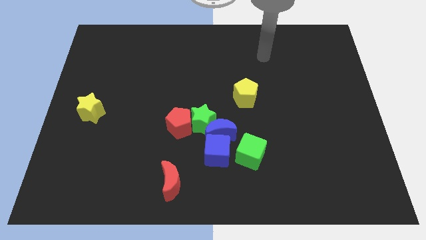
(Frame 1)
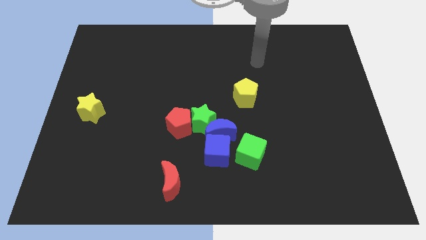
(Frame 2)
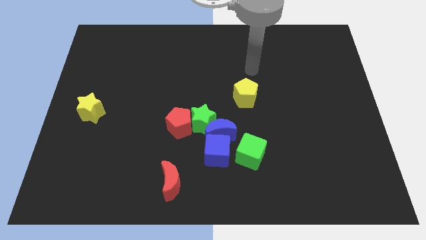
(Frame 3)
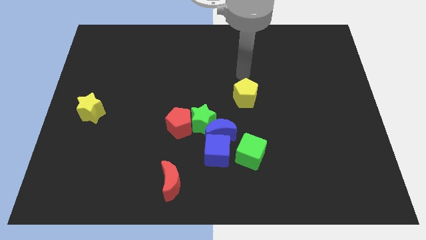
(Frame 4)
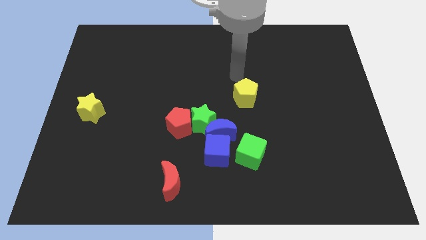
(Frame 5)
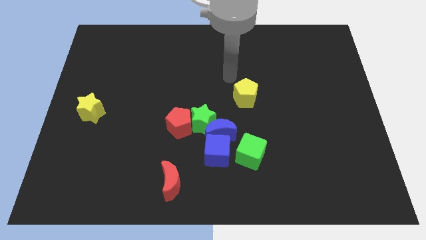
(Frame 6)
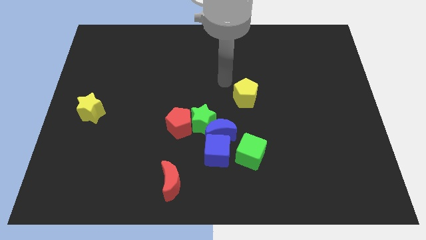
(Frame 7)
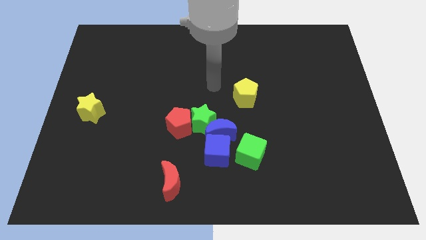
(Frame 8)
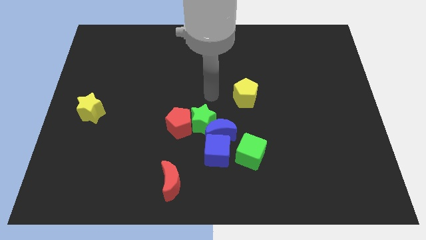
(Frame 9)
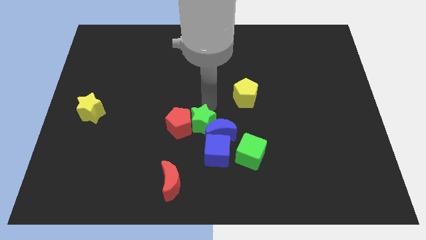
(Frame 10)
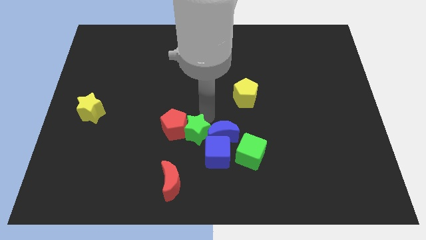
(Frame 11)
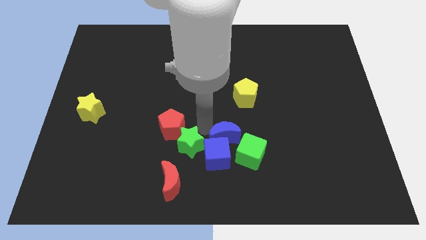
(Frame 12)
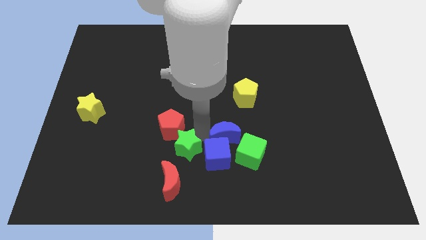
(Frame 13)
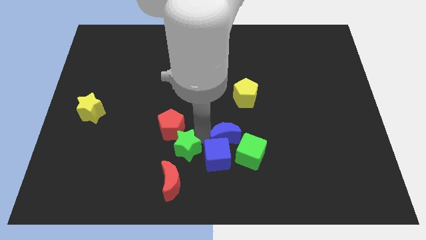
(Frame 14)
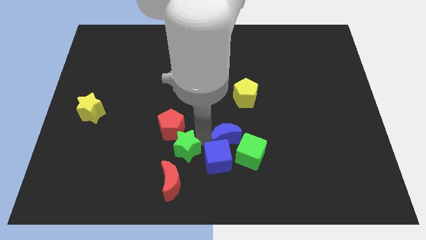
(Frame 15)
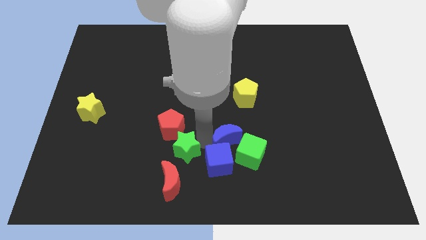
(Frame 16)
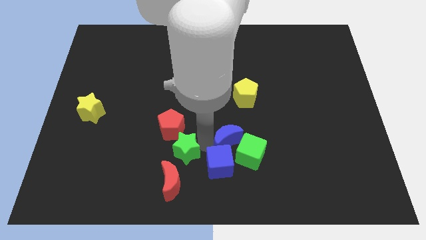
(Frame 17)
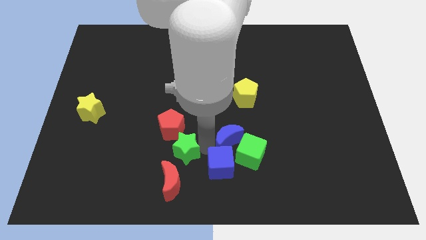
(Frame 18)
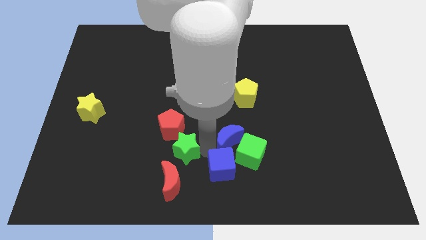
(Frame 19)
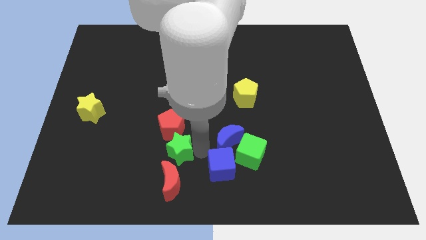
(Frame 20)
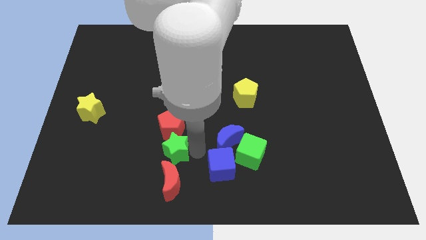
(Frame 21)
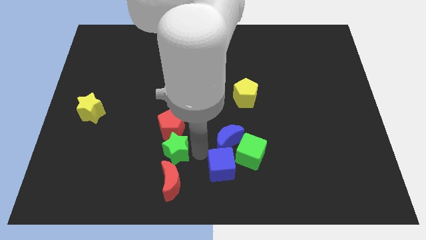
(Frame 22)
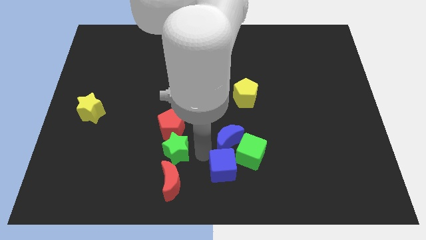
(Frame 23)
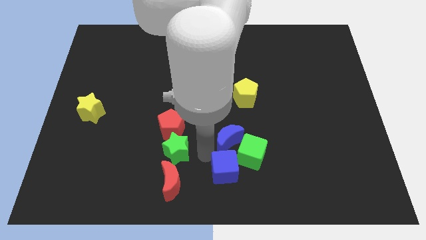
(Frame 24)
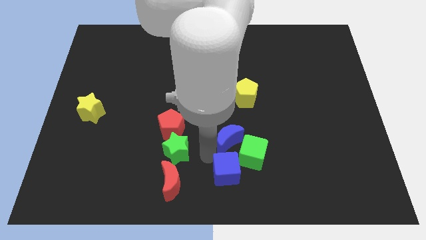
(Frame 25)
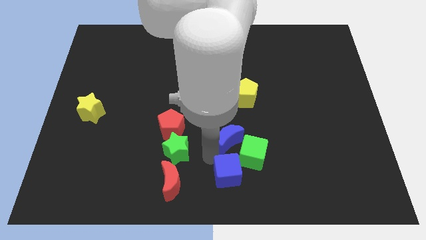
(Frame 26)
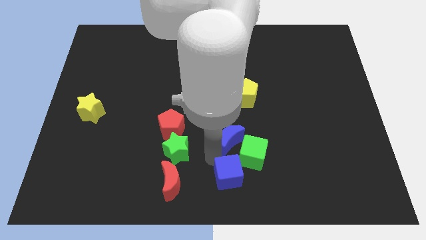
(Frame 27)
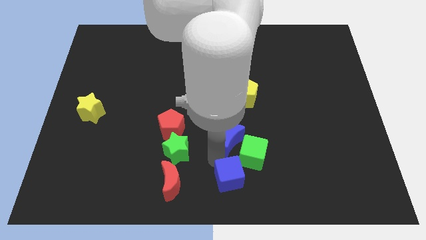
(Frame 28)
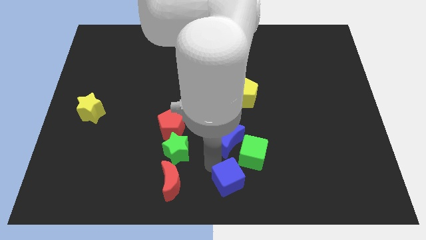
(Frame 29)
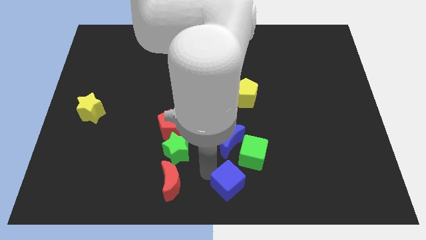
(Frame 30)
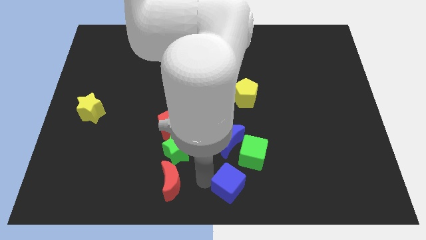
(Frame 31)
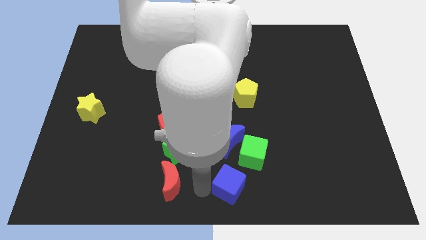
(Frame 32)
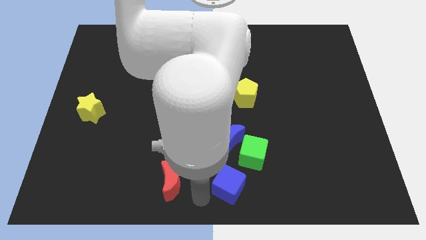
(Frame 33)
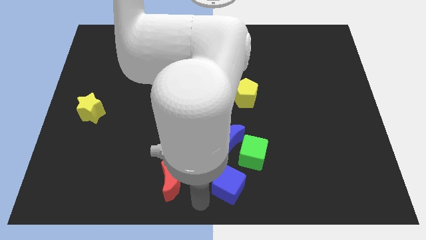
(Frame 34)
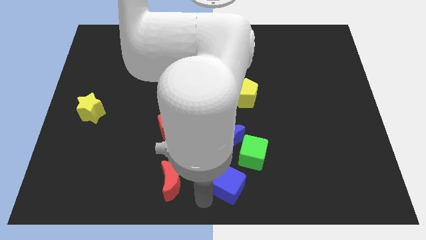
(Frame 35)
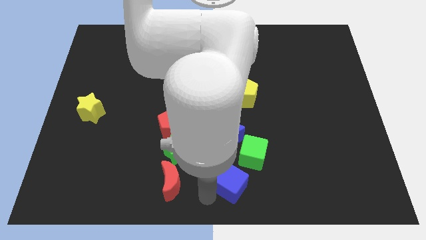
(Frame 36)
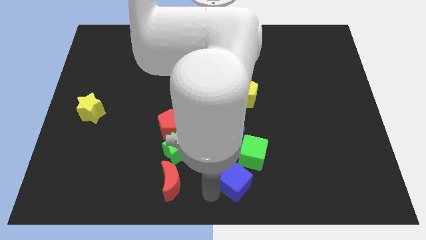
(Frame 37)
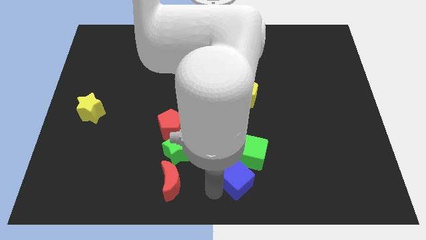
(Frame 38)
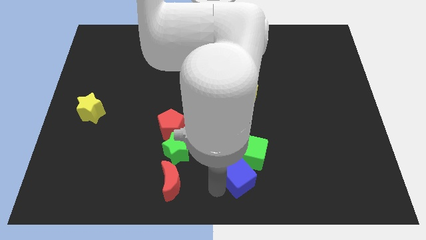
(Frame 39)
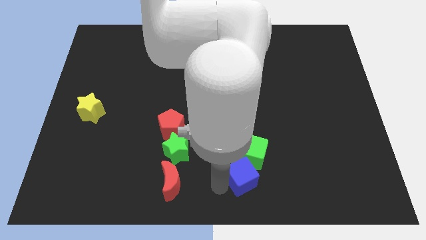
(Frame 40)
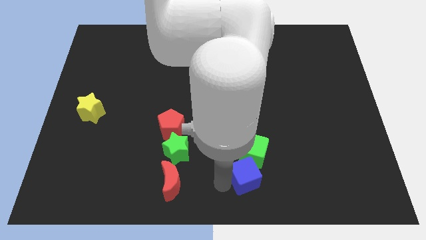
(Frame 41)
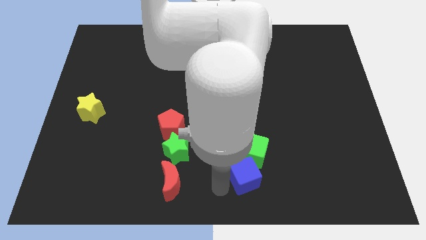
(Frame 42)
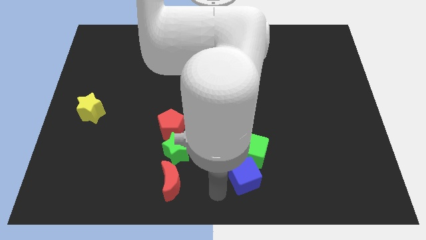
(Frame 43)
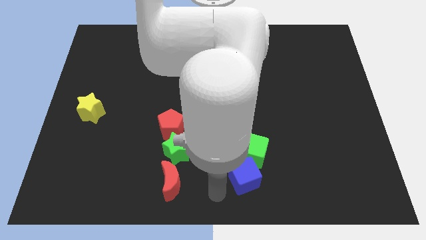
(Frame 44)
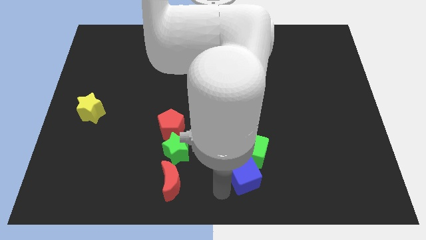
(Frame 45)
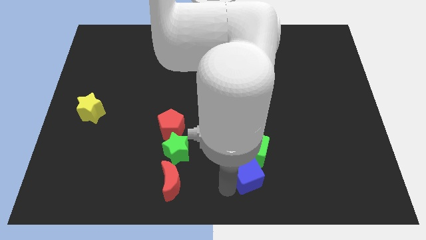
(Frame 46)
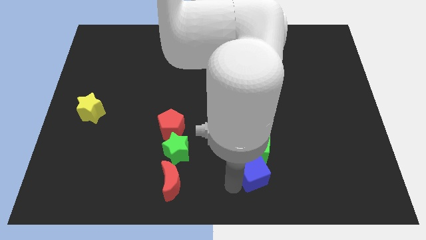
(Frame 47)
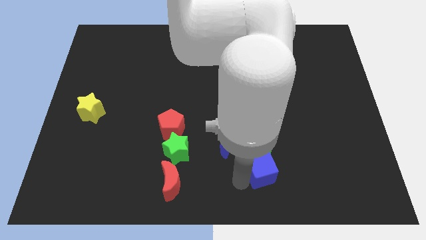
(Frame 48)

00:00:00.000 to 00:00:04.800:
slightly move the blue cube right

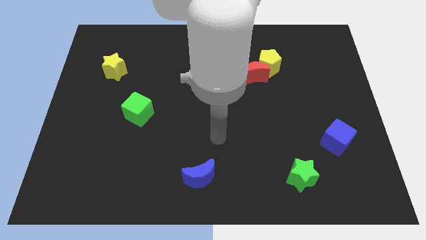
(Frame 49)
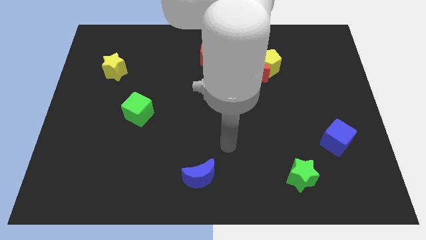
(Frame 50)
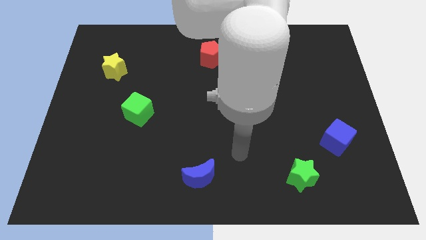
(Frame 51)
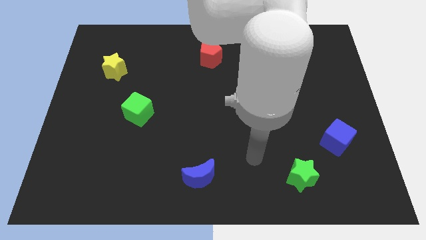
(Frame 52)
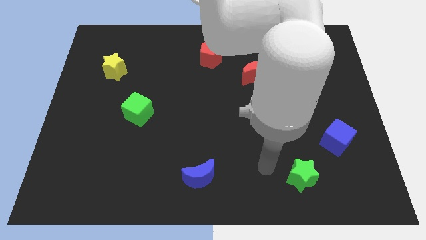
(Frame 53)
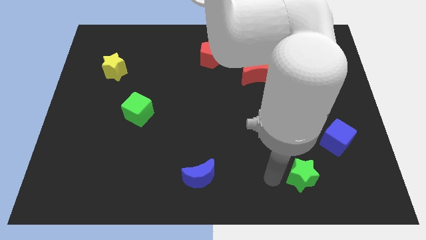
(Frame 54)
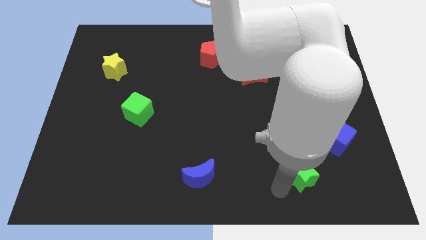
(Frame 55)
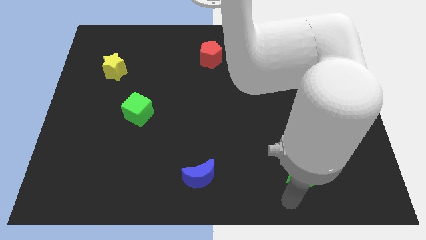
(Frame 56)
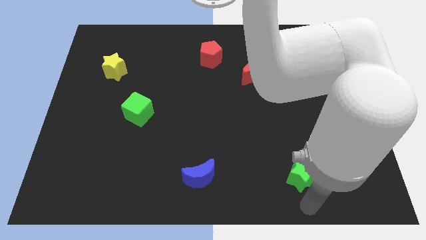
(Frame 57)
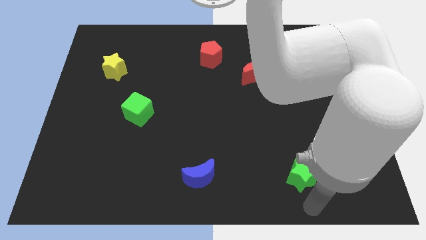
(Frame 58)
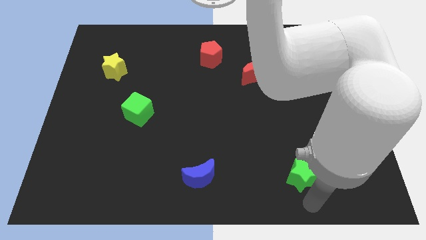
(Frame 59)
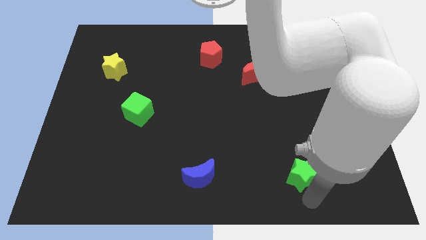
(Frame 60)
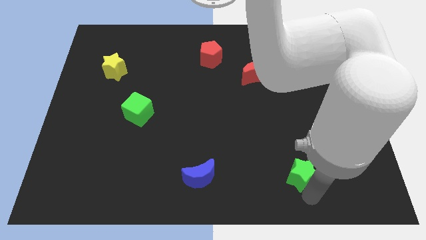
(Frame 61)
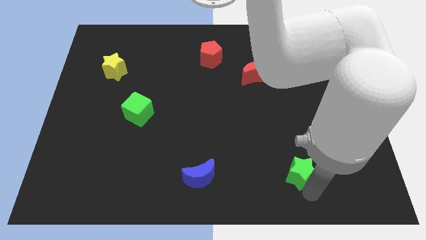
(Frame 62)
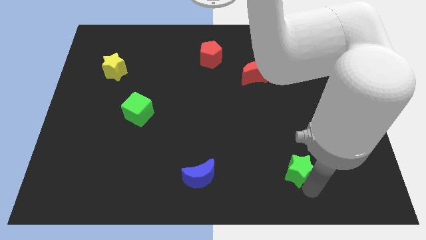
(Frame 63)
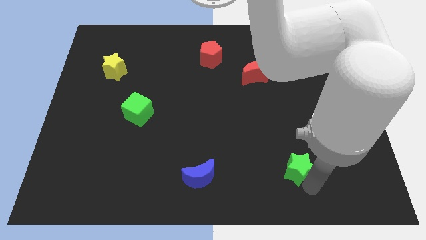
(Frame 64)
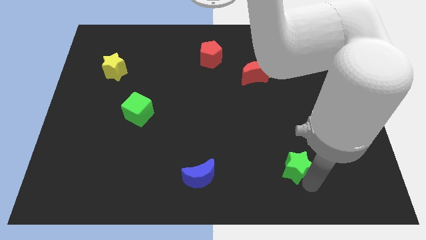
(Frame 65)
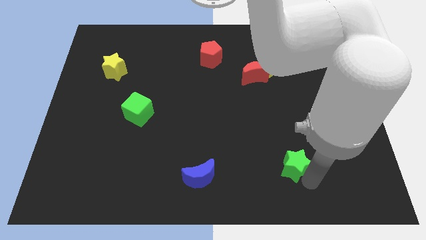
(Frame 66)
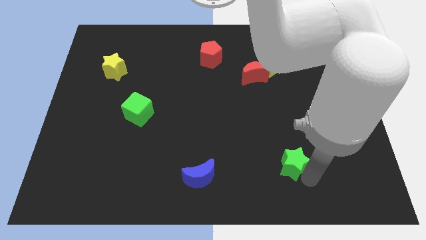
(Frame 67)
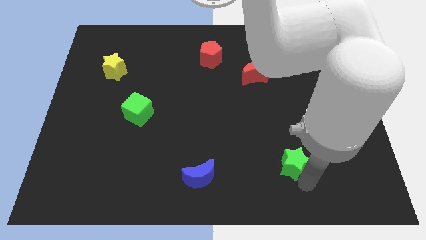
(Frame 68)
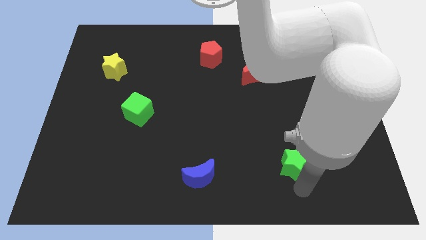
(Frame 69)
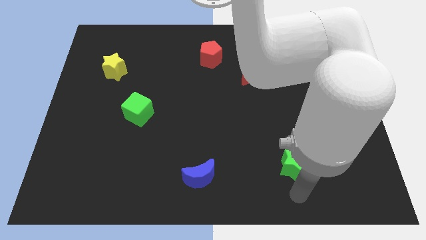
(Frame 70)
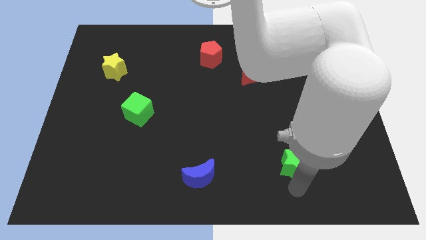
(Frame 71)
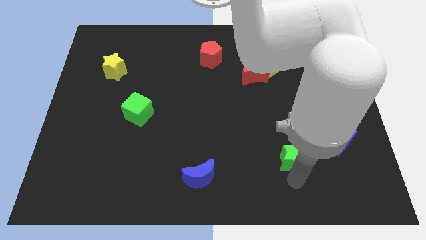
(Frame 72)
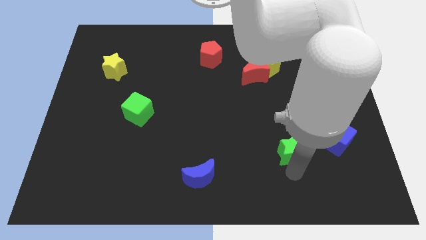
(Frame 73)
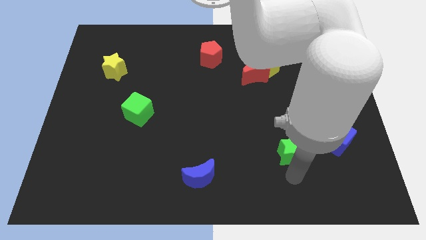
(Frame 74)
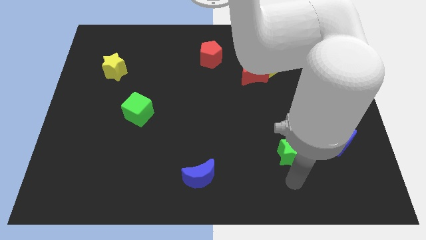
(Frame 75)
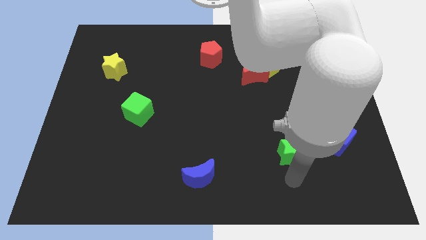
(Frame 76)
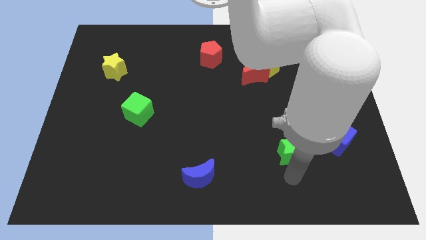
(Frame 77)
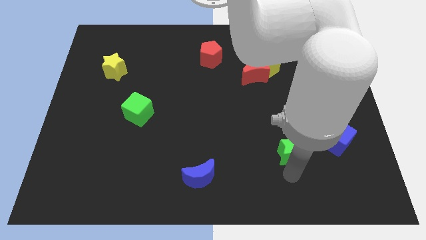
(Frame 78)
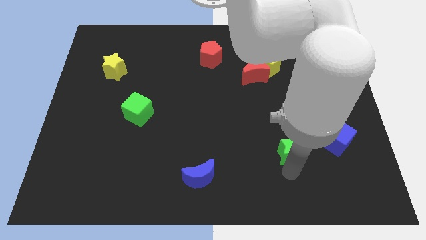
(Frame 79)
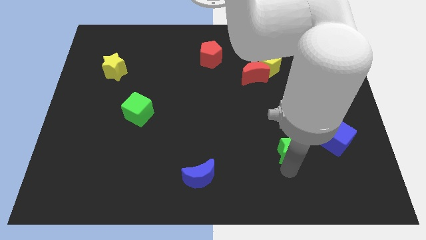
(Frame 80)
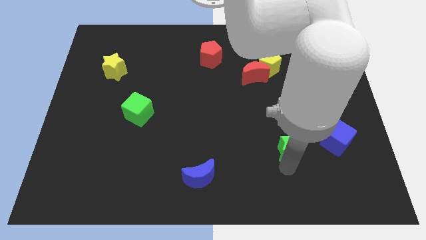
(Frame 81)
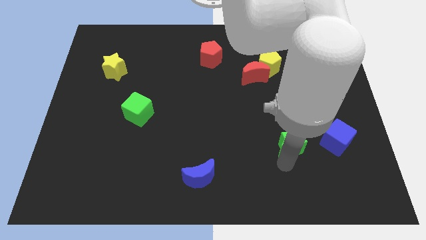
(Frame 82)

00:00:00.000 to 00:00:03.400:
move the green star upwards a little bit
